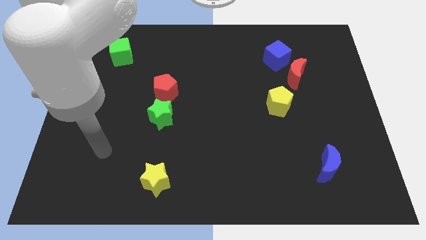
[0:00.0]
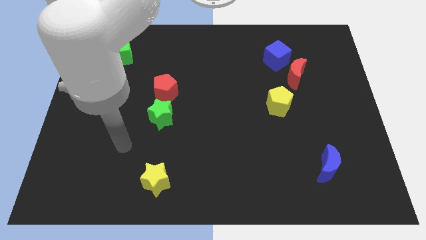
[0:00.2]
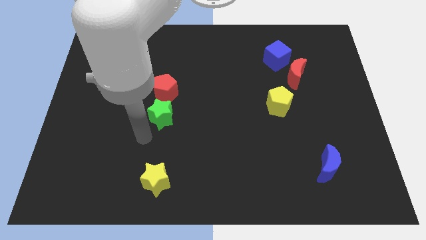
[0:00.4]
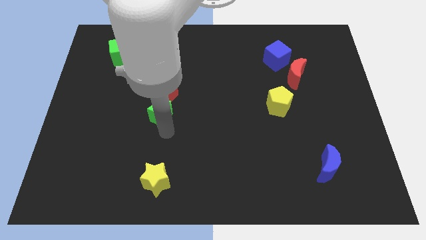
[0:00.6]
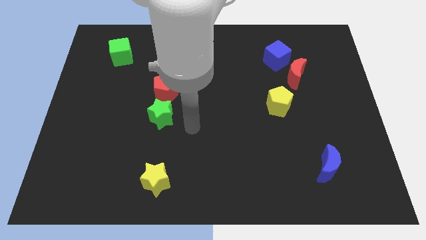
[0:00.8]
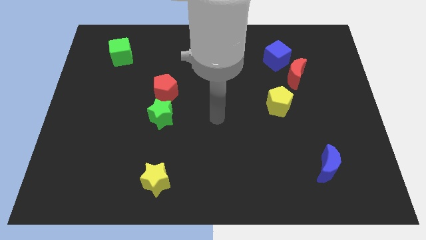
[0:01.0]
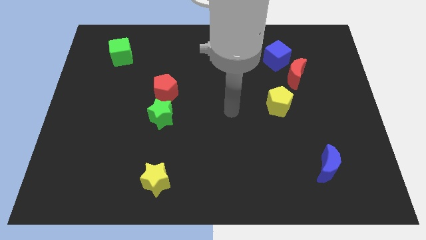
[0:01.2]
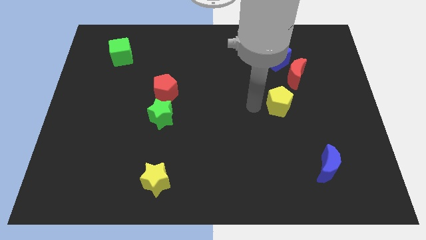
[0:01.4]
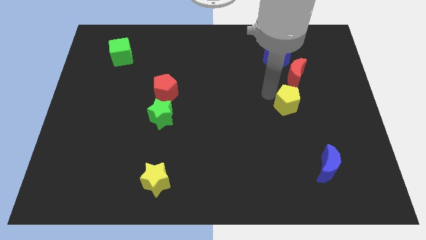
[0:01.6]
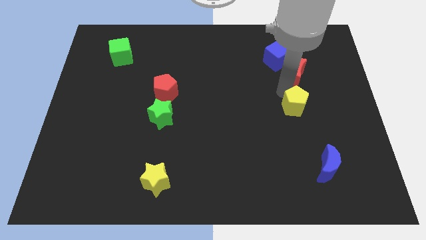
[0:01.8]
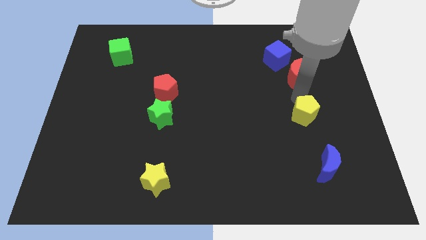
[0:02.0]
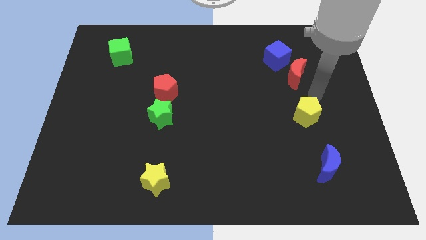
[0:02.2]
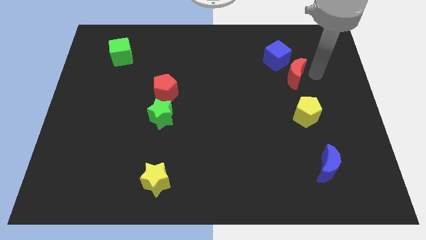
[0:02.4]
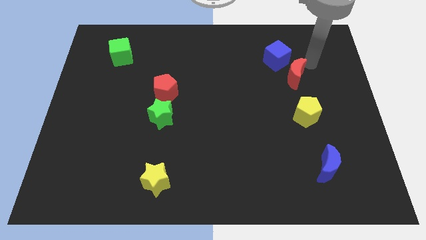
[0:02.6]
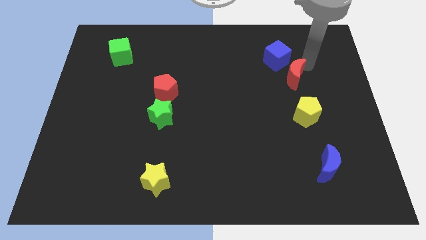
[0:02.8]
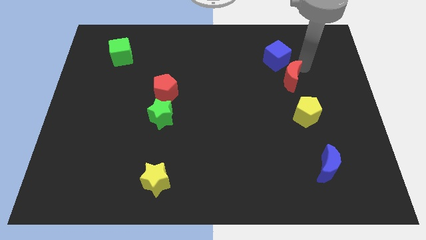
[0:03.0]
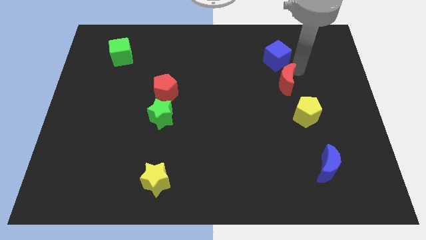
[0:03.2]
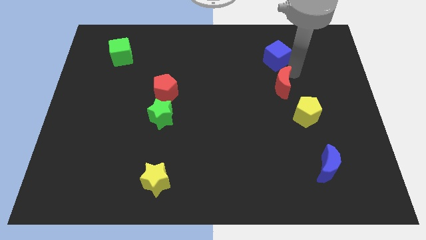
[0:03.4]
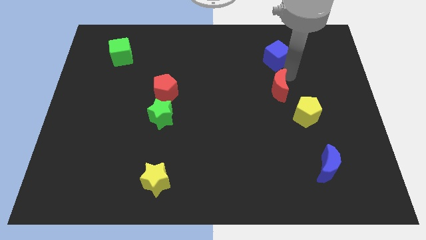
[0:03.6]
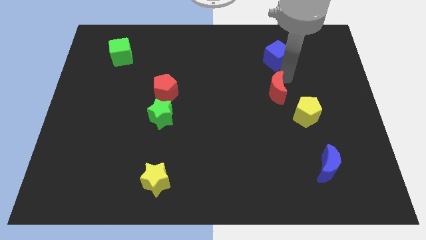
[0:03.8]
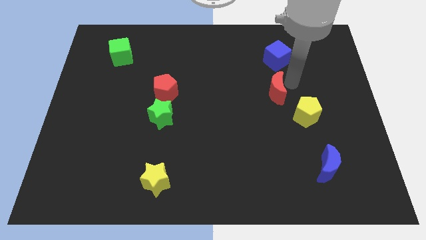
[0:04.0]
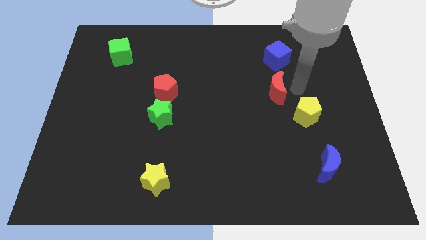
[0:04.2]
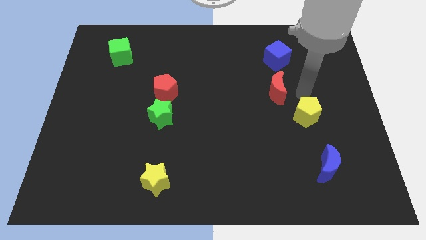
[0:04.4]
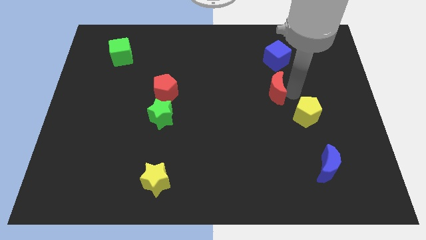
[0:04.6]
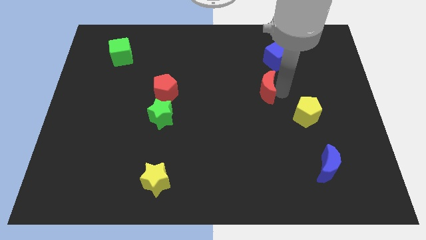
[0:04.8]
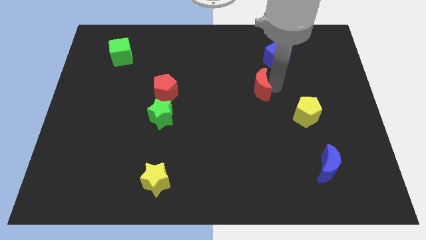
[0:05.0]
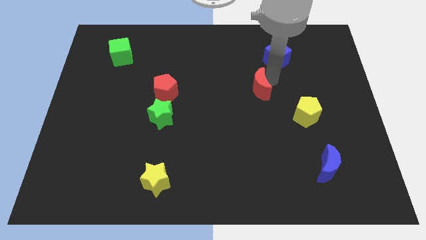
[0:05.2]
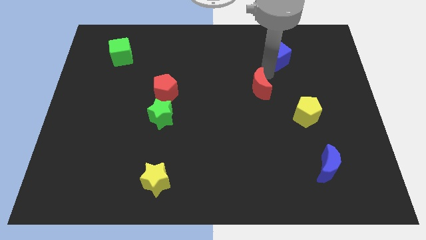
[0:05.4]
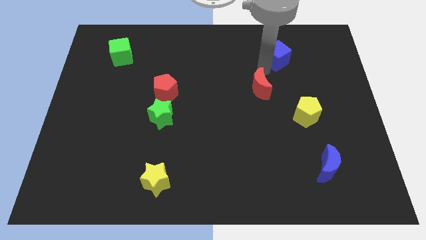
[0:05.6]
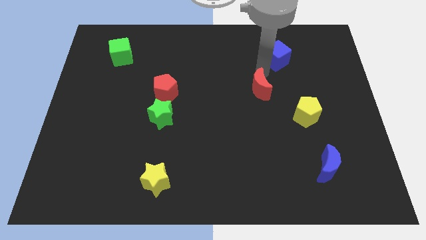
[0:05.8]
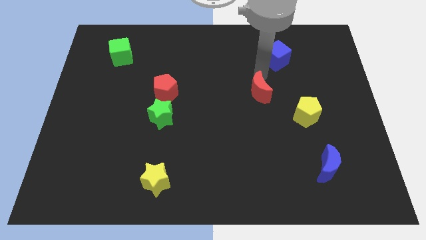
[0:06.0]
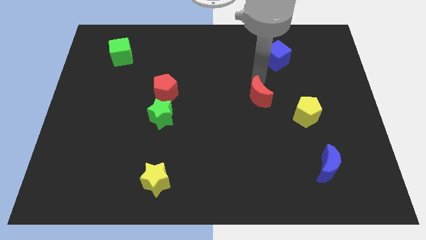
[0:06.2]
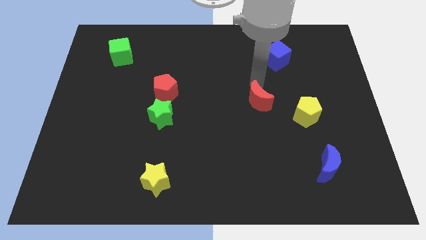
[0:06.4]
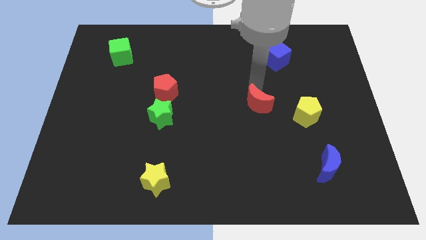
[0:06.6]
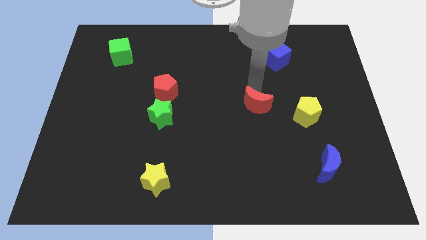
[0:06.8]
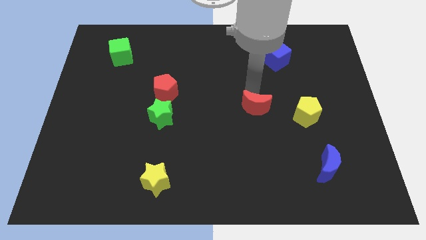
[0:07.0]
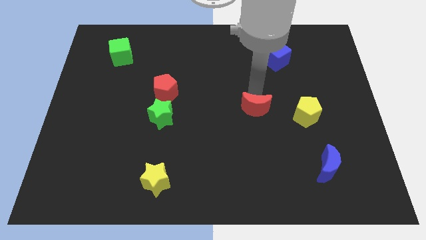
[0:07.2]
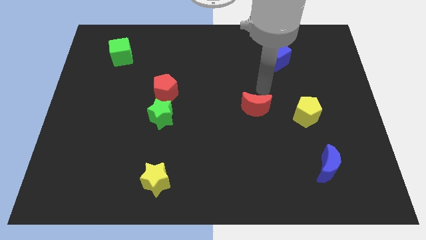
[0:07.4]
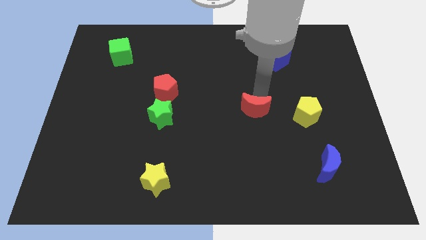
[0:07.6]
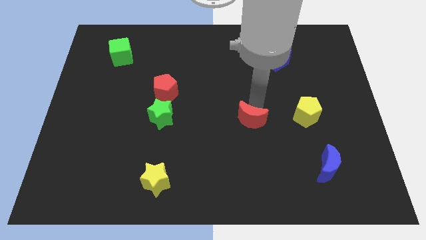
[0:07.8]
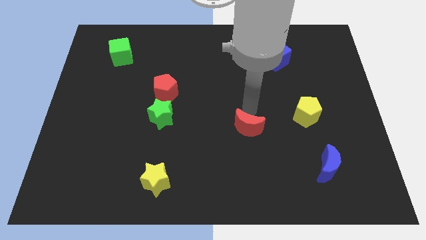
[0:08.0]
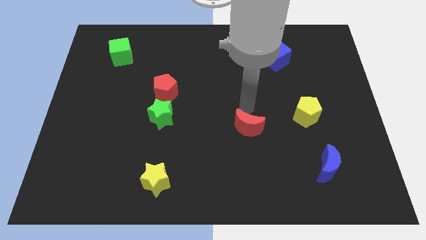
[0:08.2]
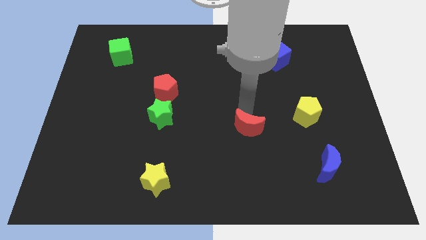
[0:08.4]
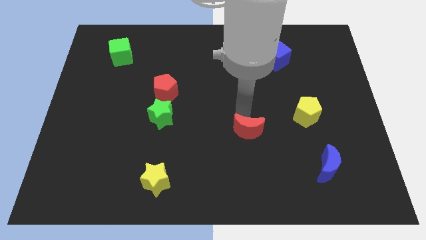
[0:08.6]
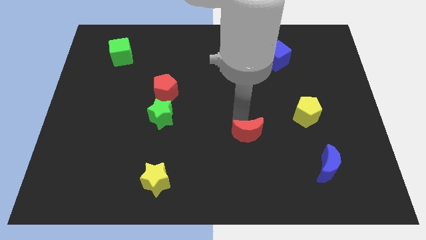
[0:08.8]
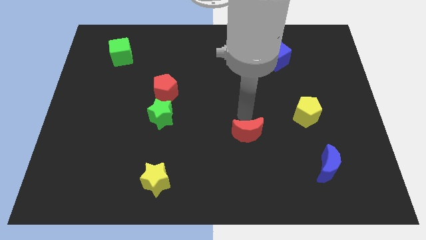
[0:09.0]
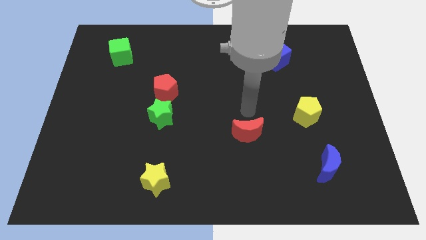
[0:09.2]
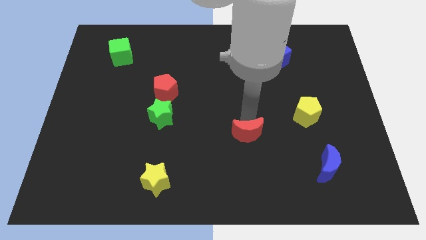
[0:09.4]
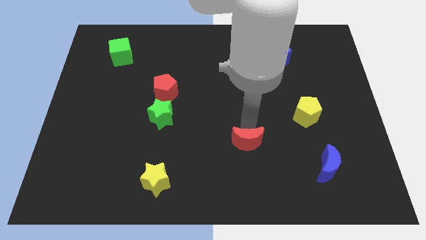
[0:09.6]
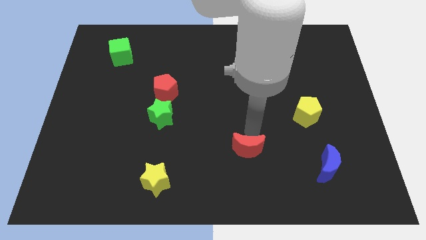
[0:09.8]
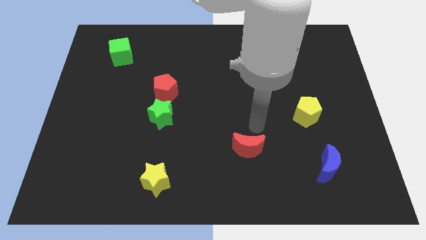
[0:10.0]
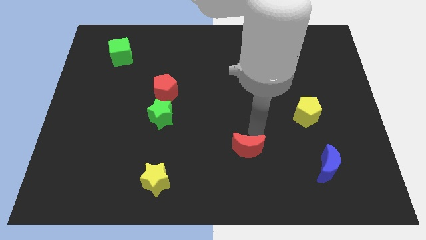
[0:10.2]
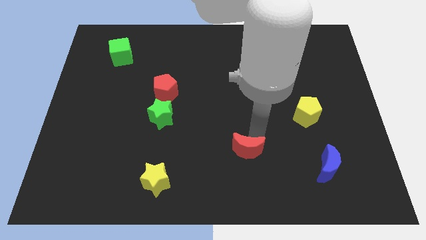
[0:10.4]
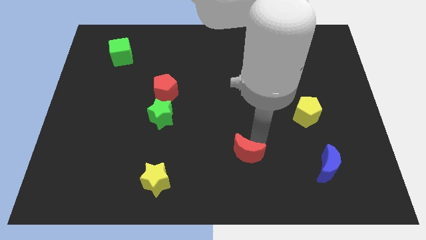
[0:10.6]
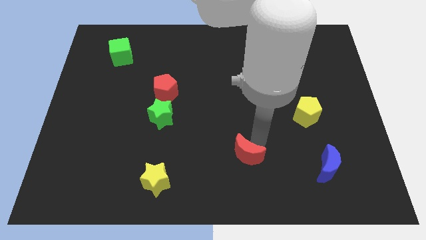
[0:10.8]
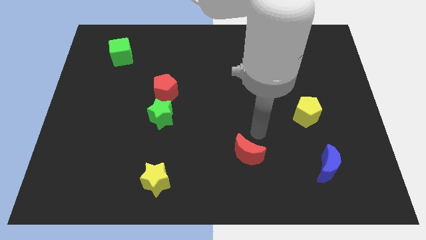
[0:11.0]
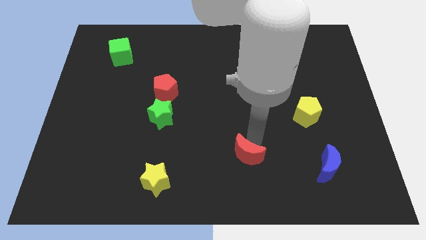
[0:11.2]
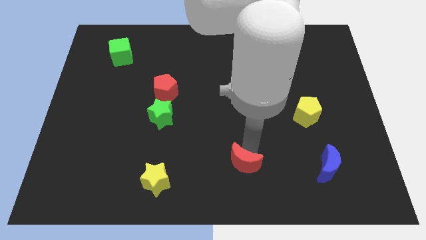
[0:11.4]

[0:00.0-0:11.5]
slide the red moon to the bottom
